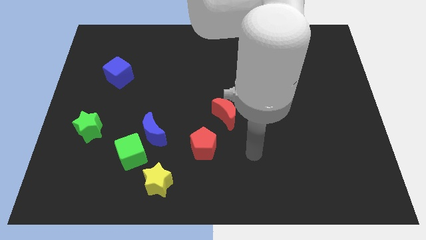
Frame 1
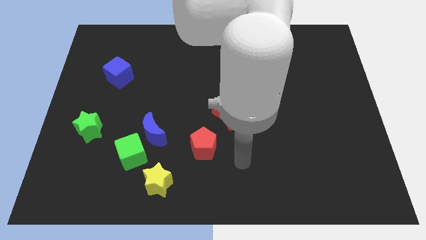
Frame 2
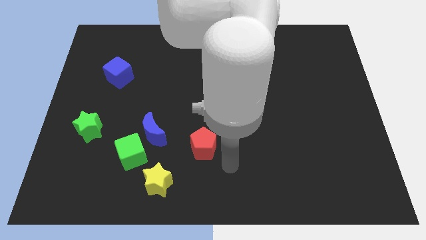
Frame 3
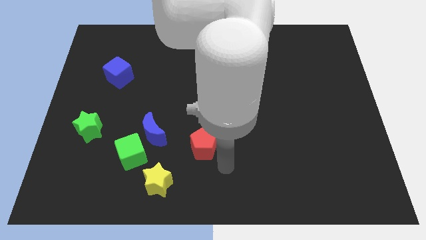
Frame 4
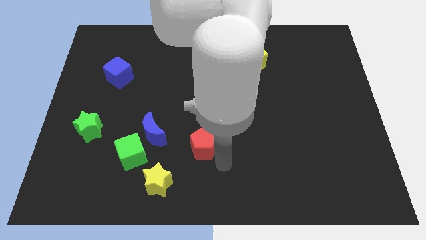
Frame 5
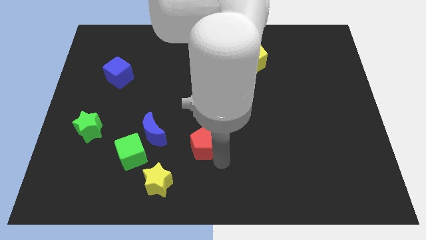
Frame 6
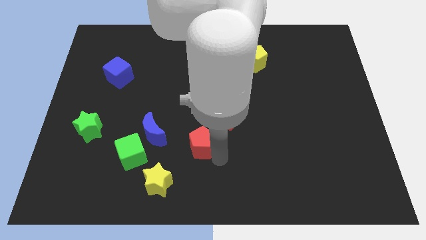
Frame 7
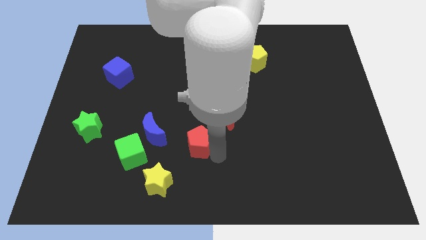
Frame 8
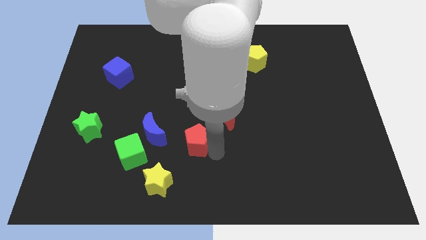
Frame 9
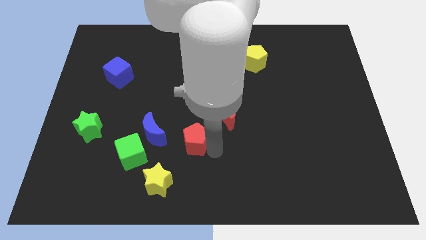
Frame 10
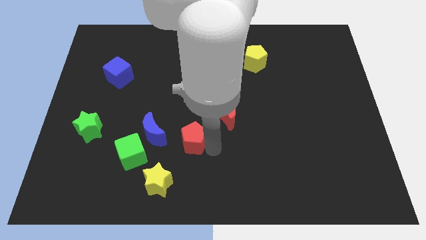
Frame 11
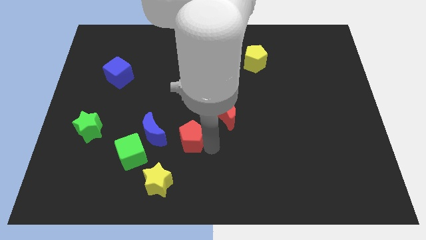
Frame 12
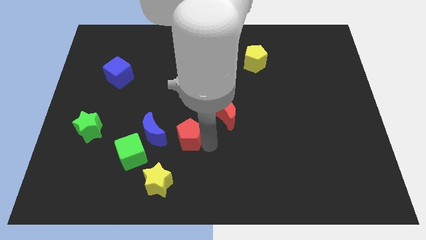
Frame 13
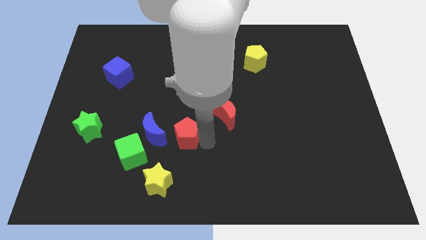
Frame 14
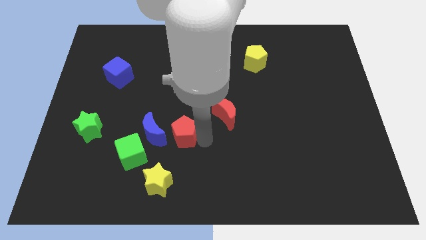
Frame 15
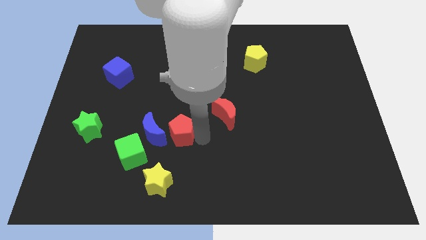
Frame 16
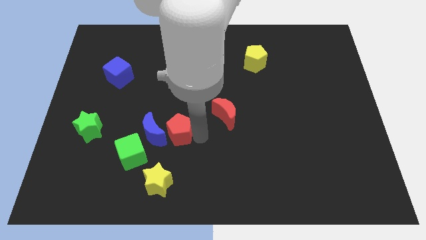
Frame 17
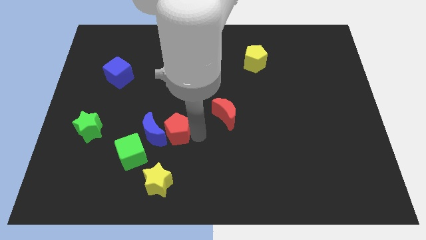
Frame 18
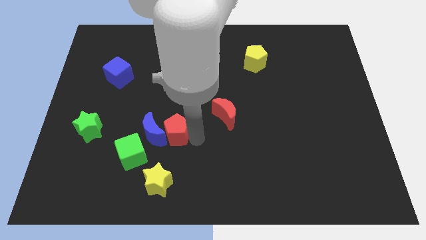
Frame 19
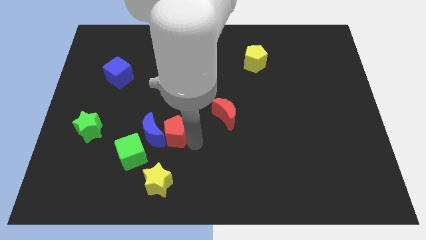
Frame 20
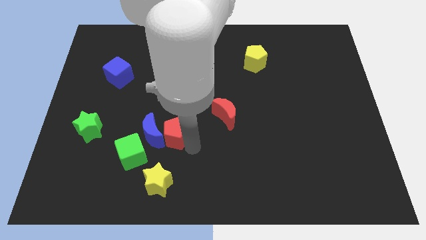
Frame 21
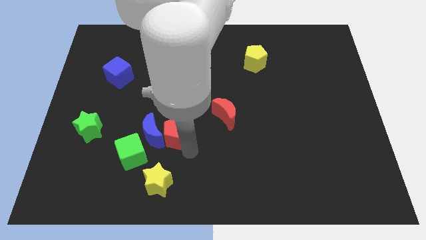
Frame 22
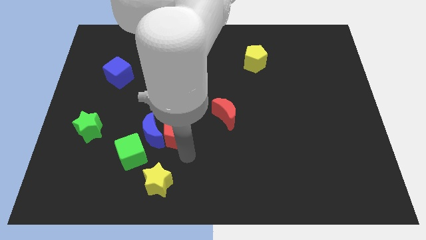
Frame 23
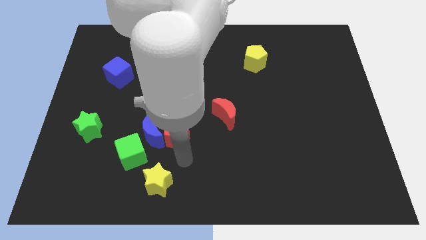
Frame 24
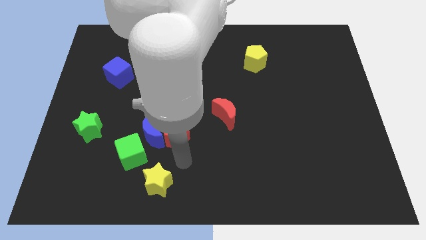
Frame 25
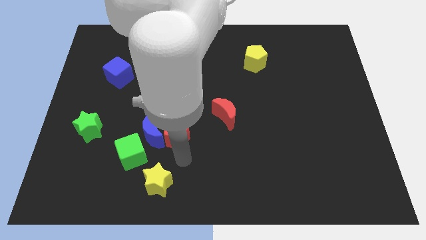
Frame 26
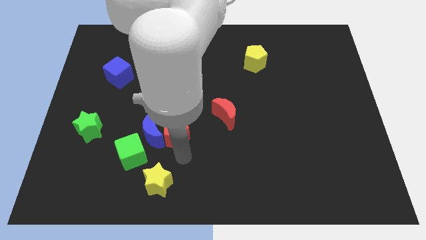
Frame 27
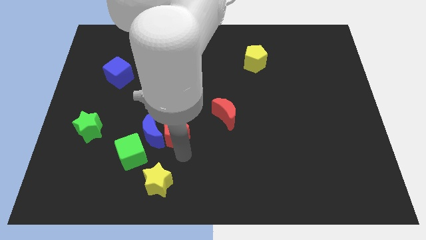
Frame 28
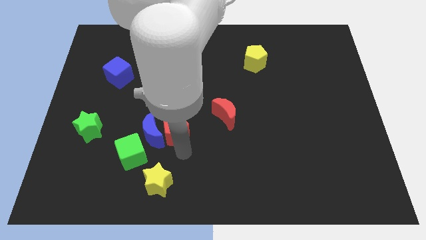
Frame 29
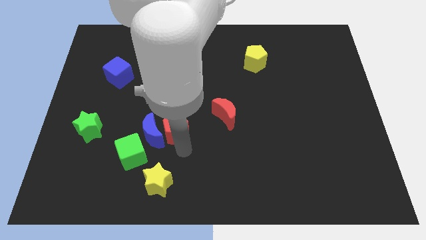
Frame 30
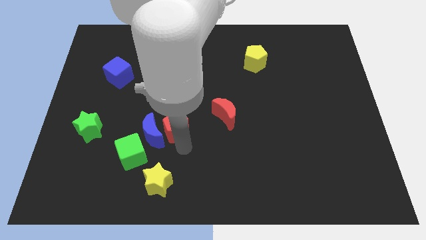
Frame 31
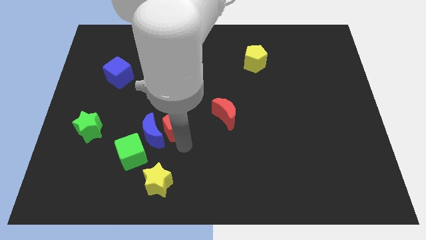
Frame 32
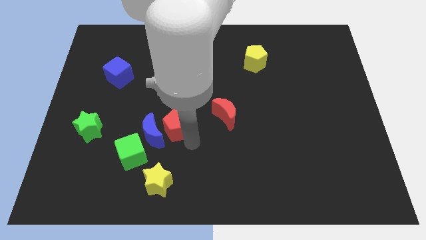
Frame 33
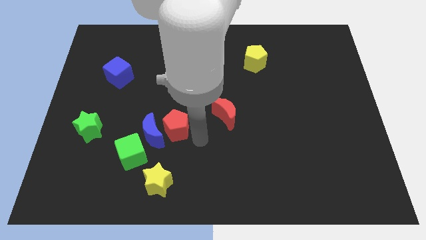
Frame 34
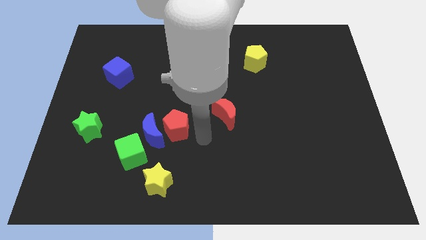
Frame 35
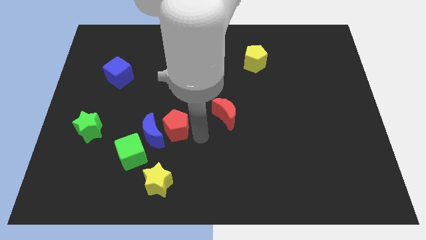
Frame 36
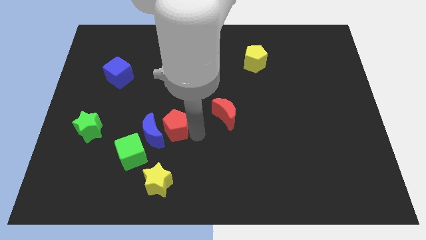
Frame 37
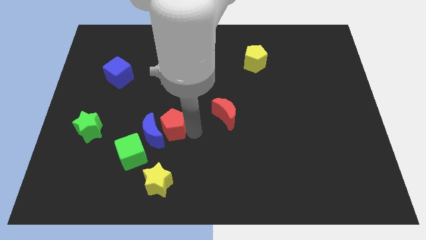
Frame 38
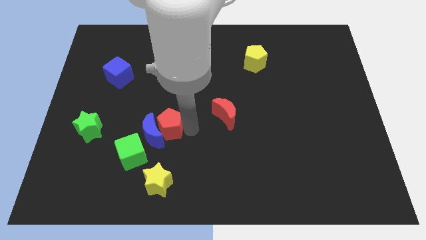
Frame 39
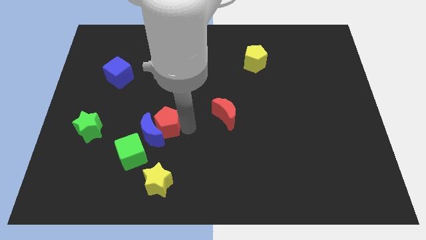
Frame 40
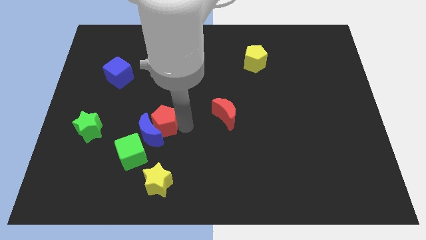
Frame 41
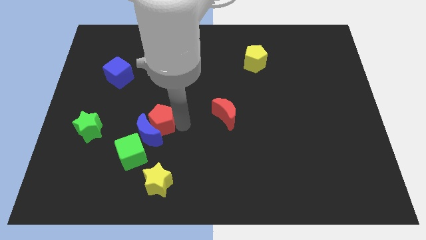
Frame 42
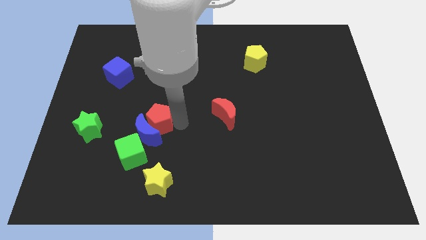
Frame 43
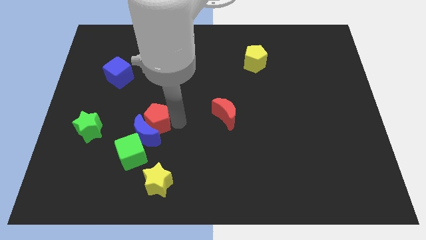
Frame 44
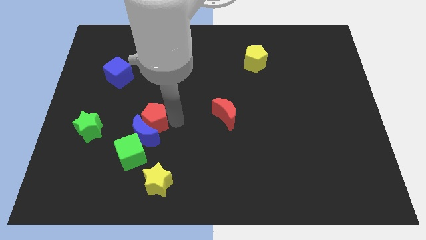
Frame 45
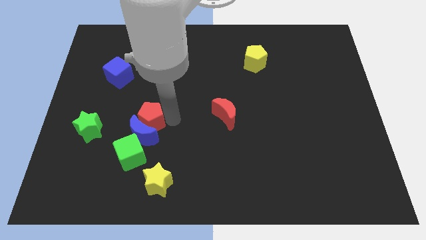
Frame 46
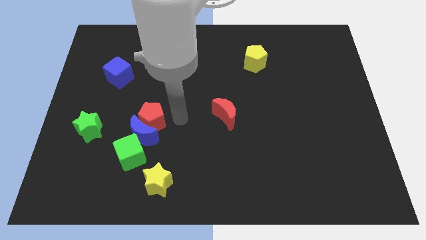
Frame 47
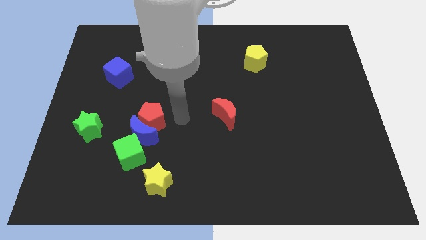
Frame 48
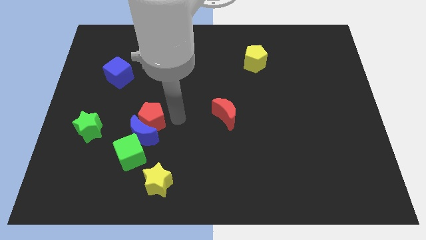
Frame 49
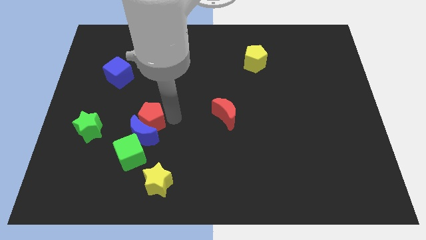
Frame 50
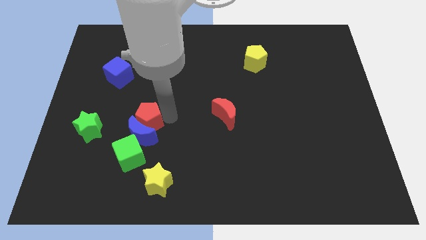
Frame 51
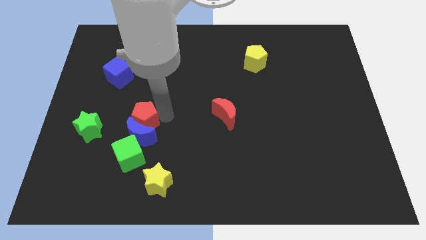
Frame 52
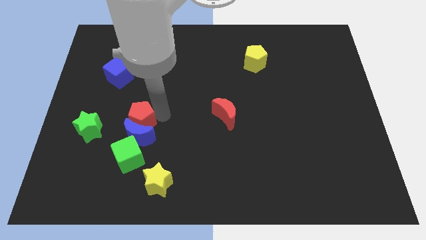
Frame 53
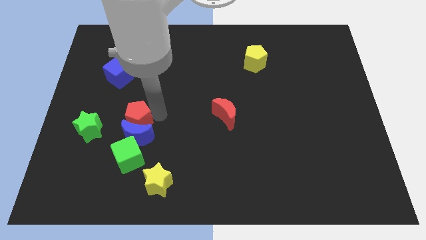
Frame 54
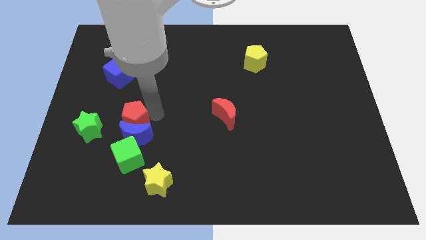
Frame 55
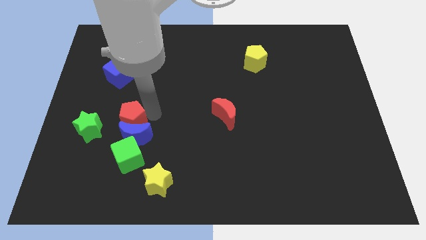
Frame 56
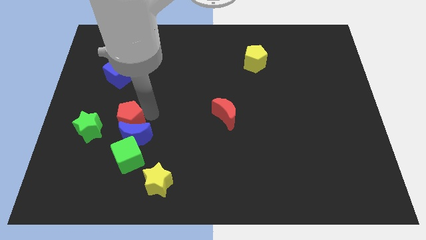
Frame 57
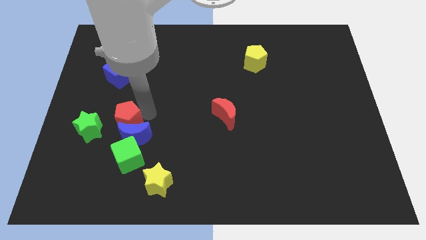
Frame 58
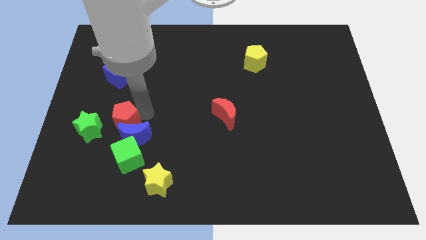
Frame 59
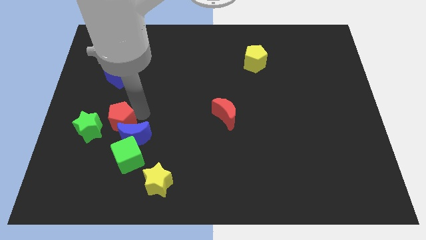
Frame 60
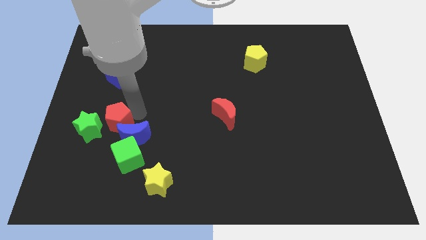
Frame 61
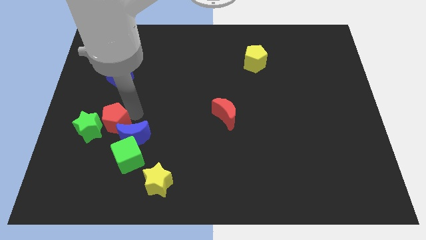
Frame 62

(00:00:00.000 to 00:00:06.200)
slide the red pentagon close to the green star
